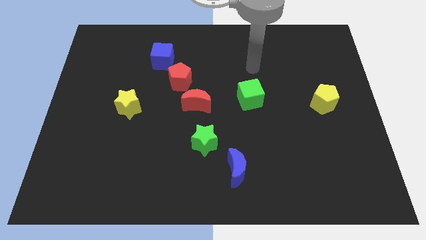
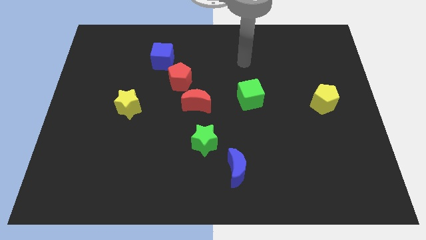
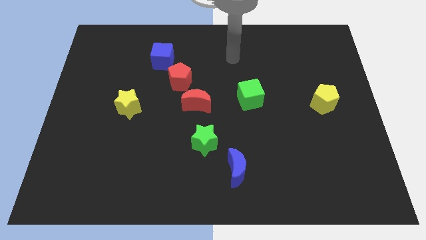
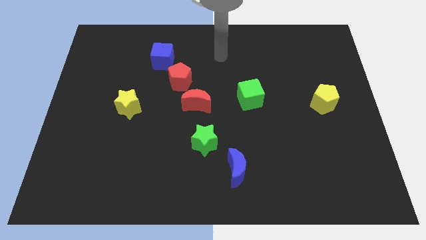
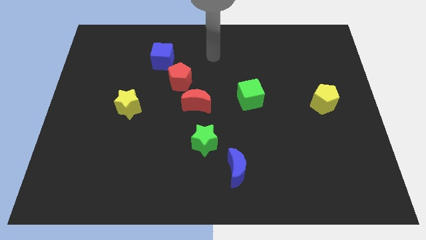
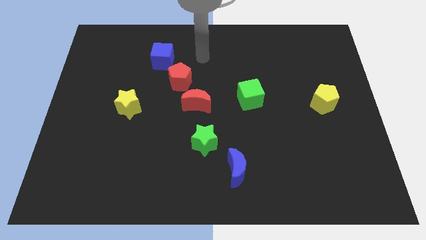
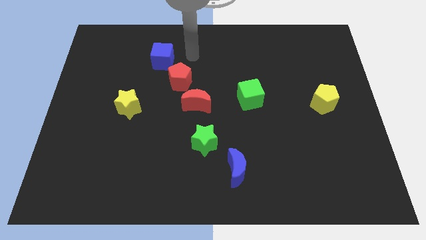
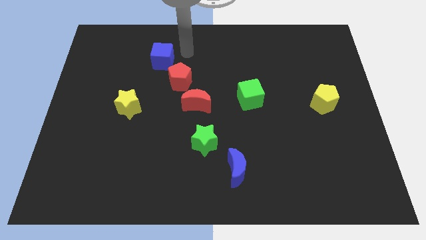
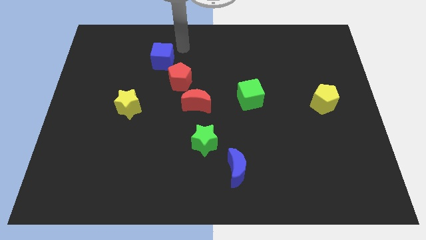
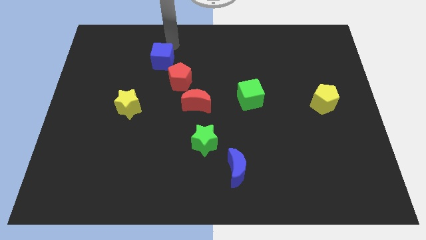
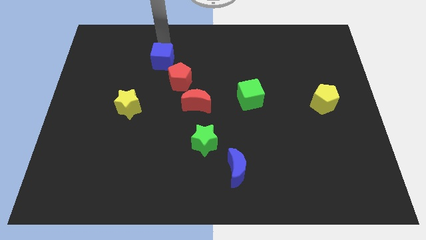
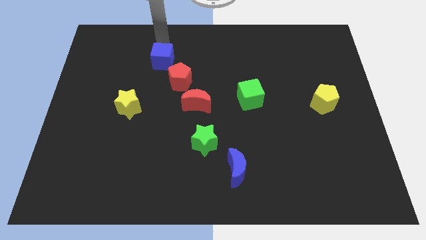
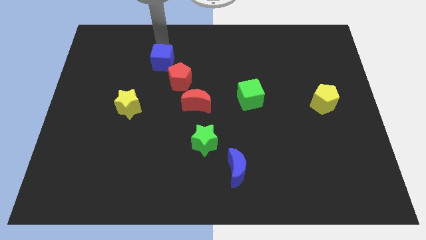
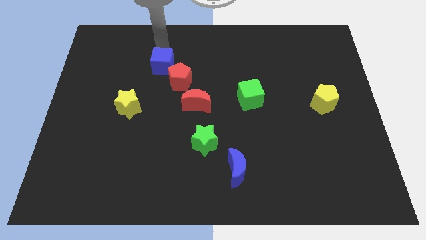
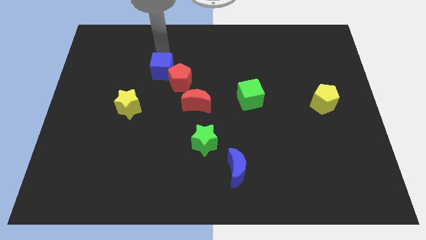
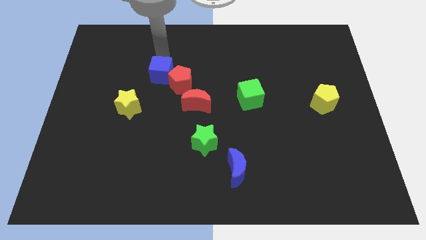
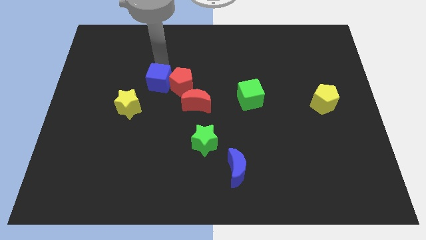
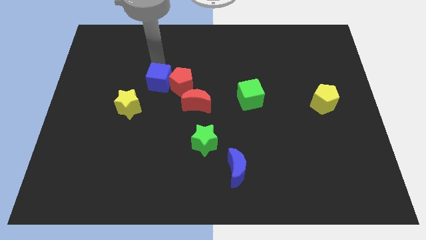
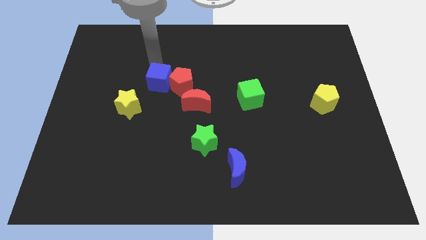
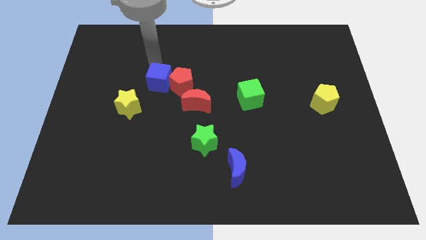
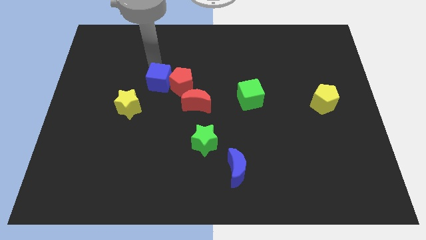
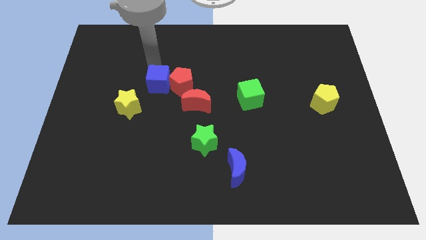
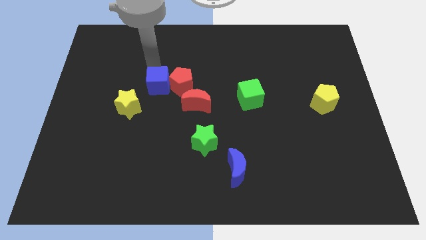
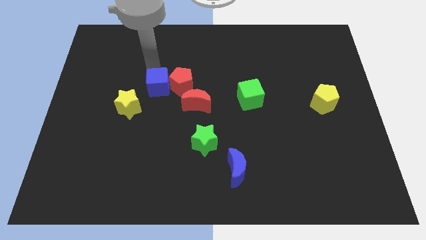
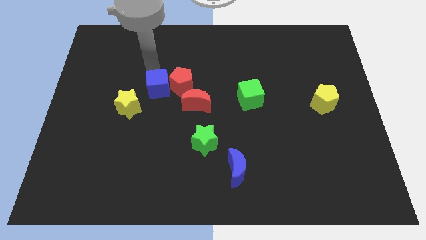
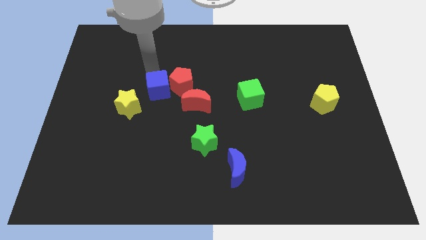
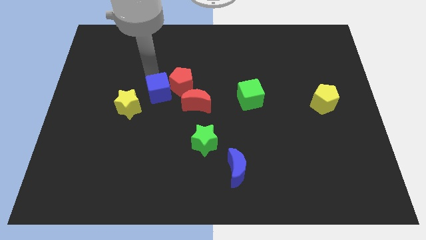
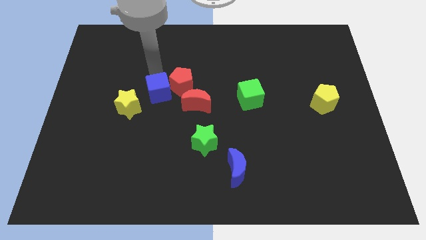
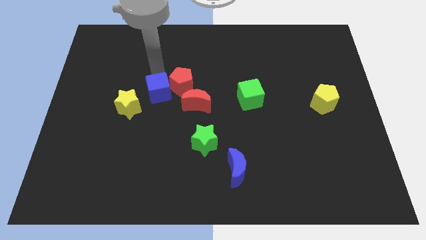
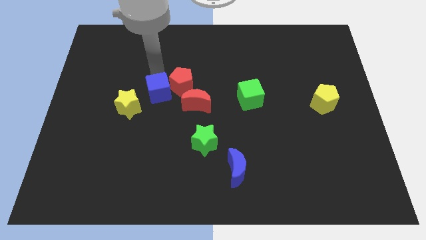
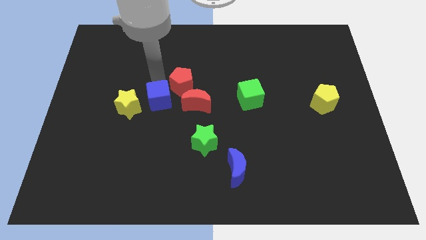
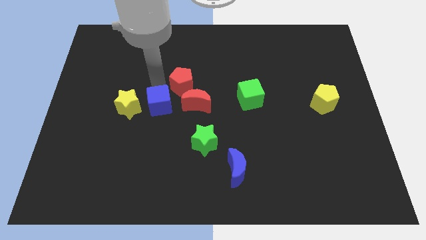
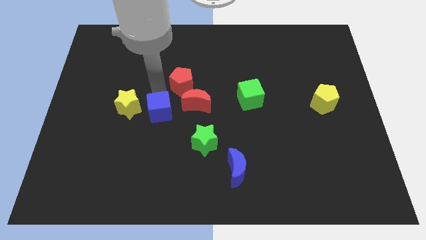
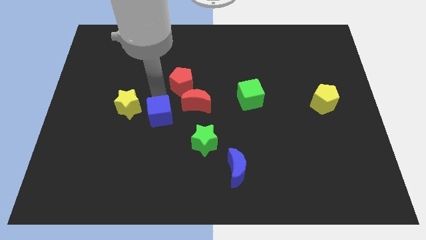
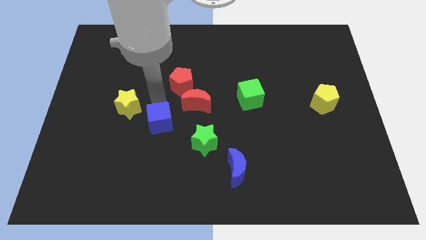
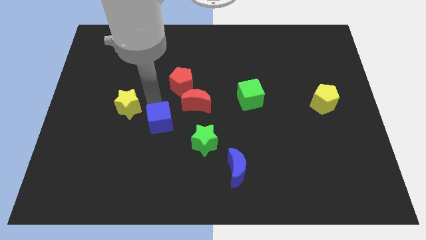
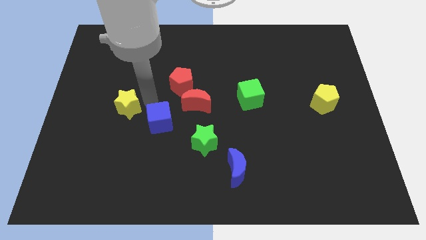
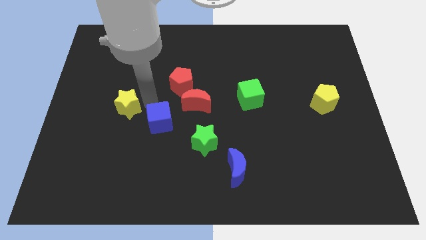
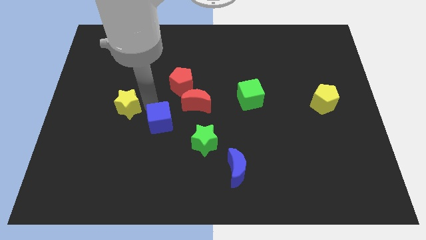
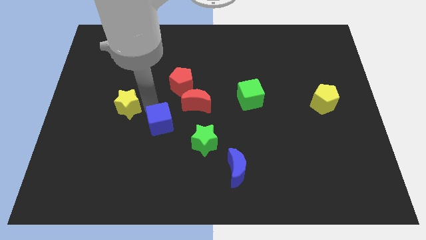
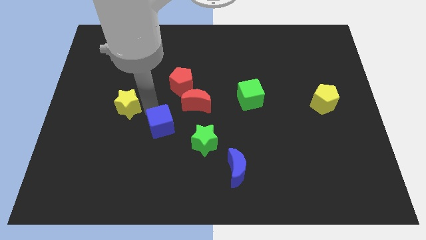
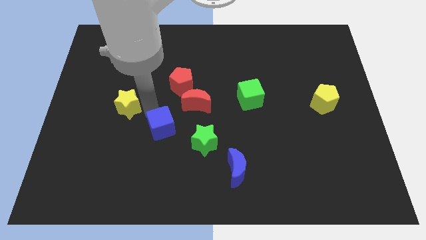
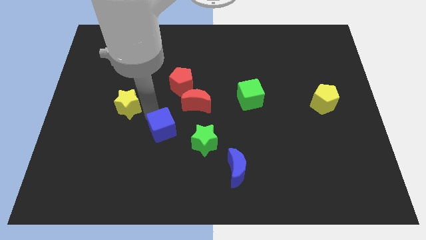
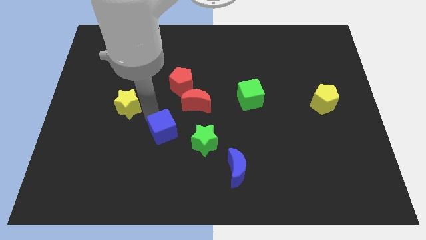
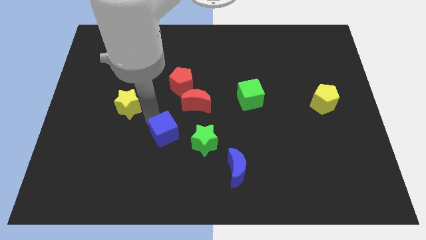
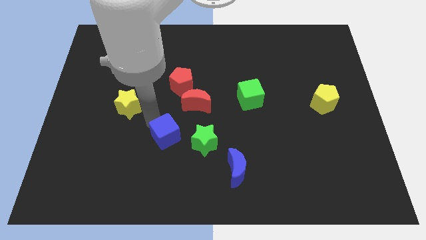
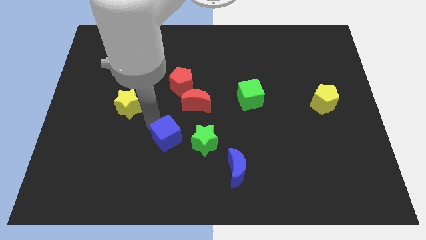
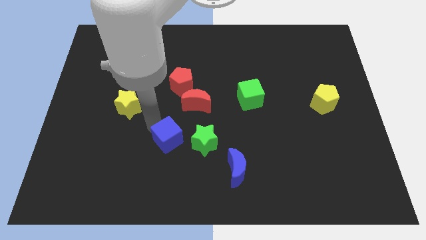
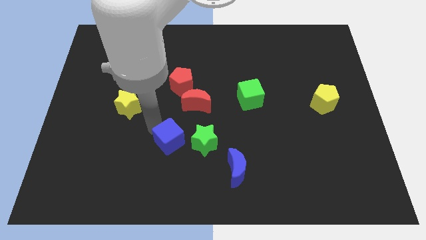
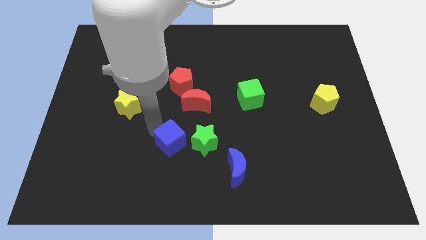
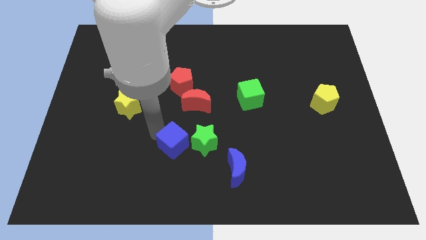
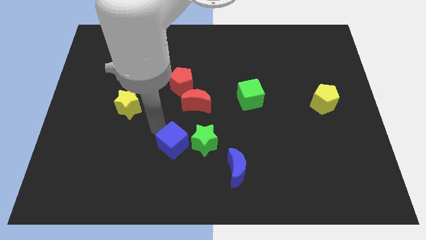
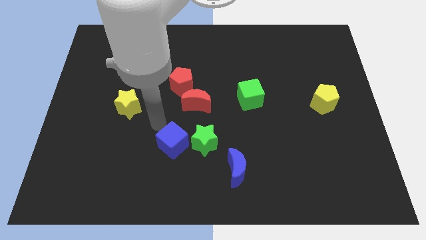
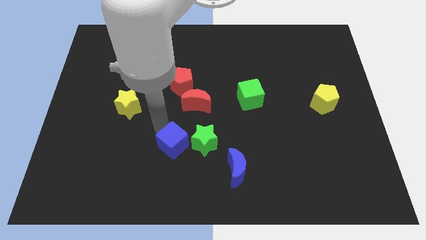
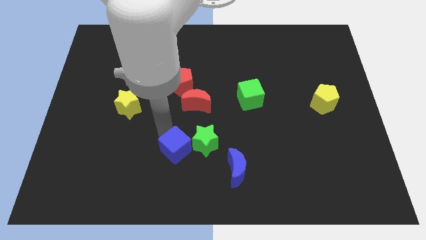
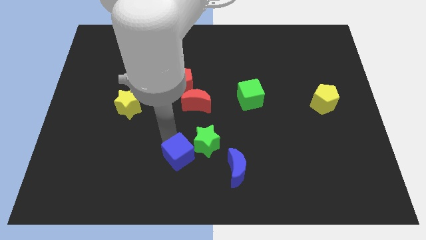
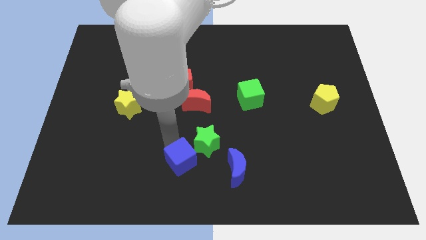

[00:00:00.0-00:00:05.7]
move the blue cube to the bottom
